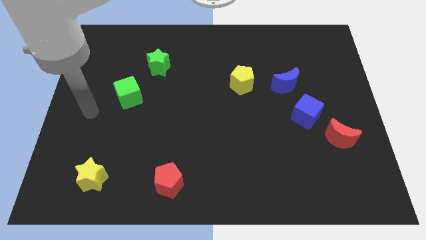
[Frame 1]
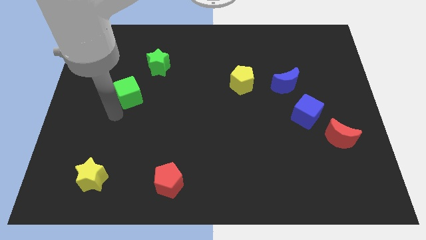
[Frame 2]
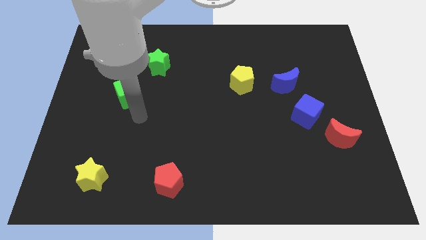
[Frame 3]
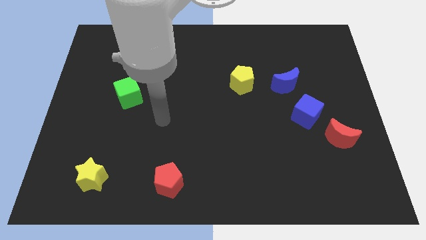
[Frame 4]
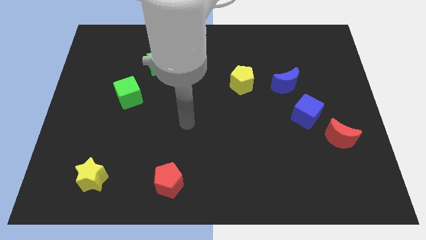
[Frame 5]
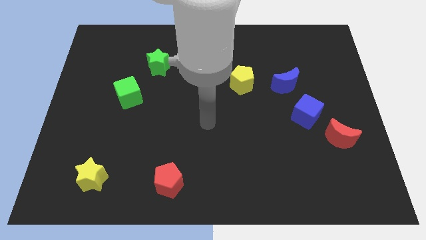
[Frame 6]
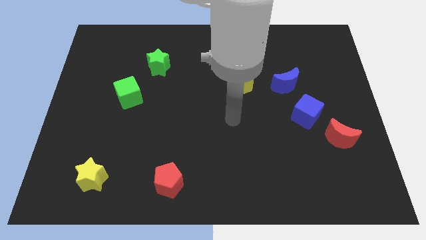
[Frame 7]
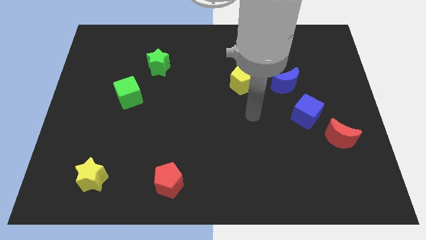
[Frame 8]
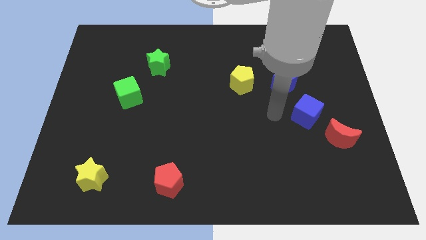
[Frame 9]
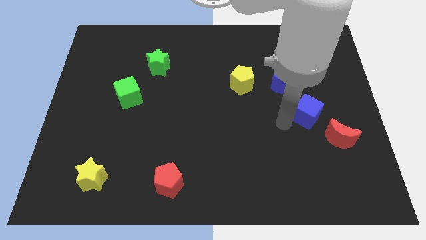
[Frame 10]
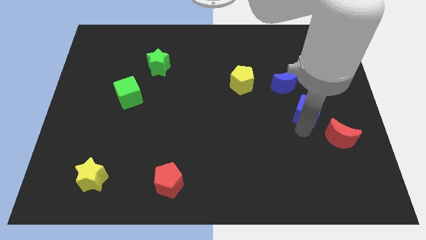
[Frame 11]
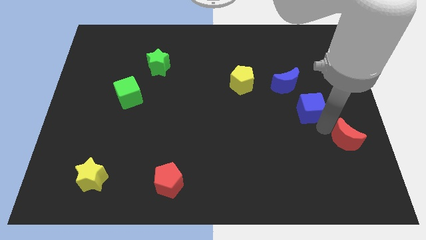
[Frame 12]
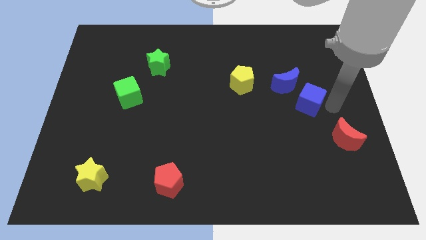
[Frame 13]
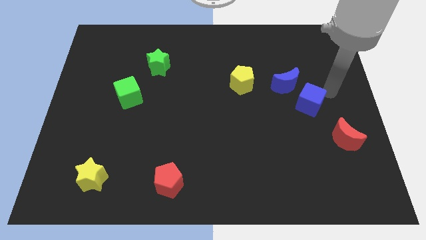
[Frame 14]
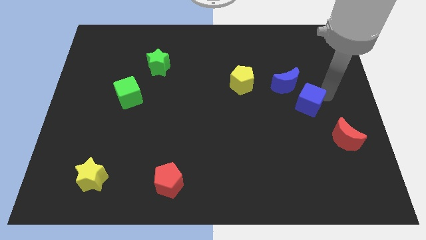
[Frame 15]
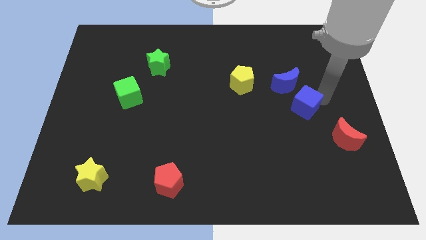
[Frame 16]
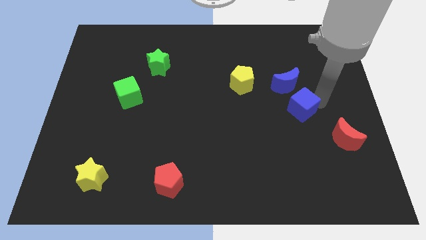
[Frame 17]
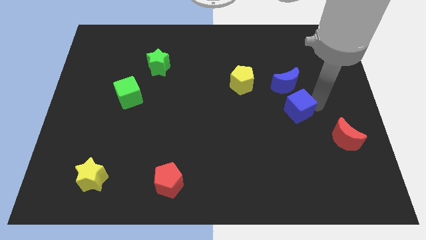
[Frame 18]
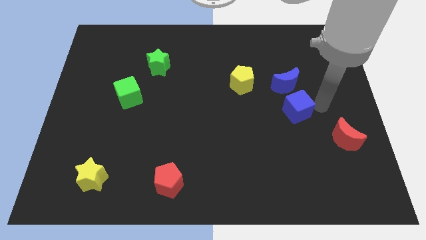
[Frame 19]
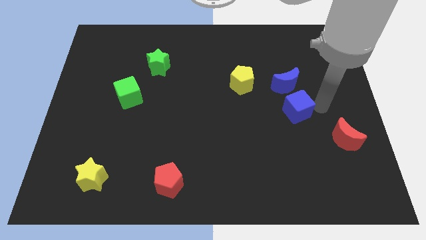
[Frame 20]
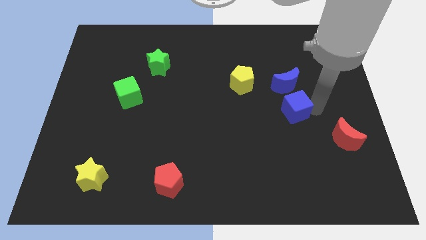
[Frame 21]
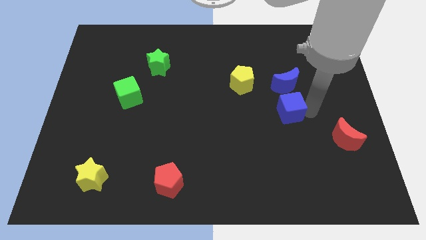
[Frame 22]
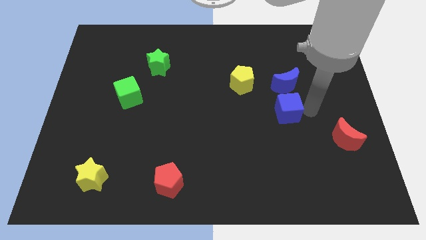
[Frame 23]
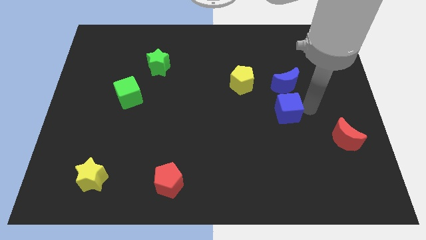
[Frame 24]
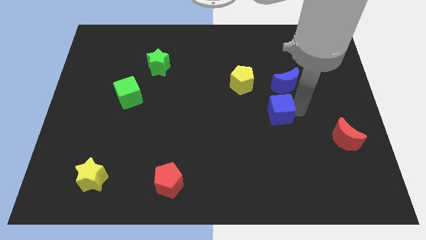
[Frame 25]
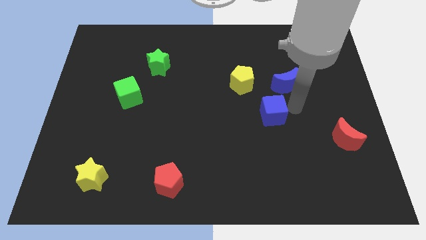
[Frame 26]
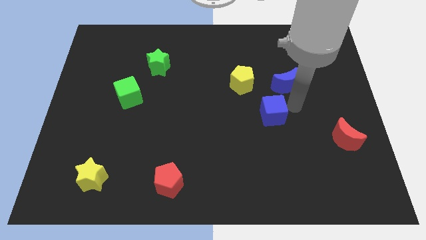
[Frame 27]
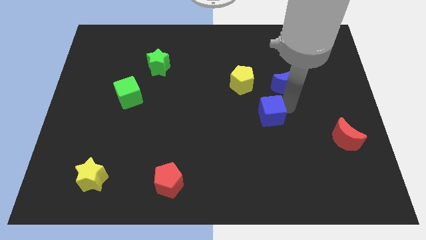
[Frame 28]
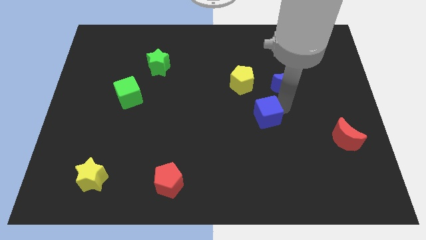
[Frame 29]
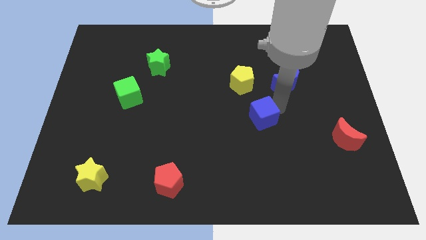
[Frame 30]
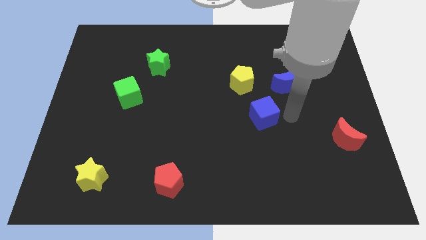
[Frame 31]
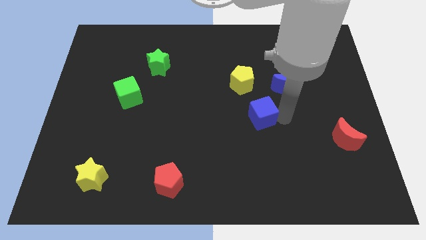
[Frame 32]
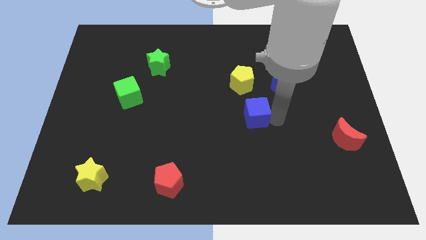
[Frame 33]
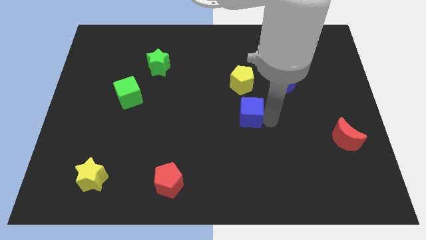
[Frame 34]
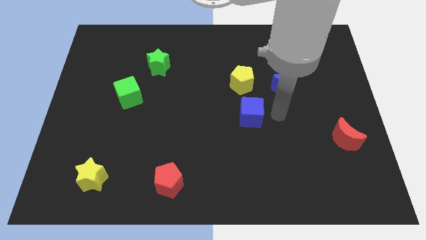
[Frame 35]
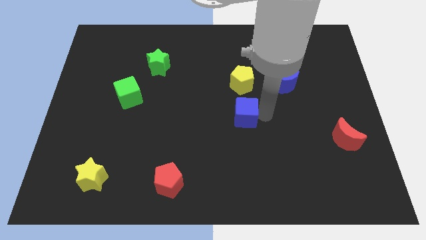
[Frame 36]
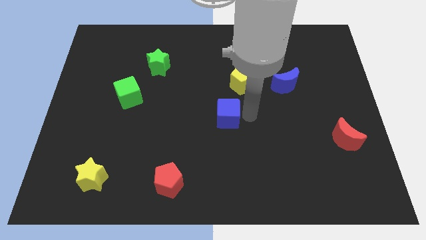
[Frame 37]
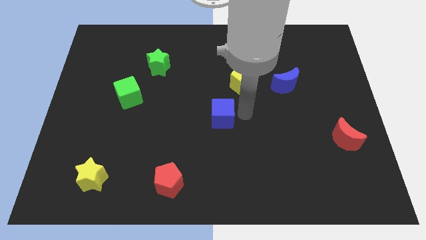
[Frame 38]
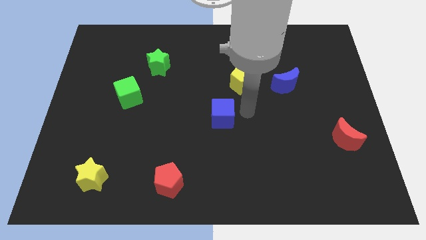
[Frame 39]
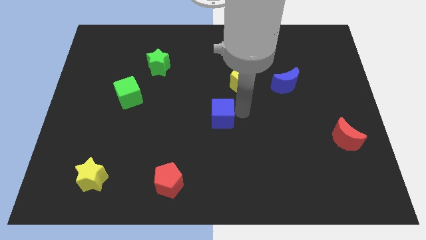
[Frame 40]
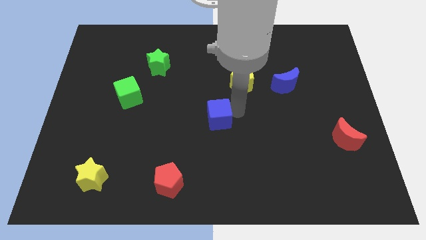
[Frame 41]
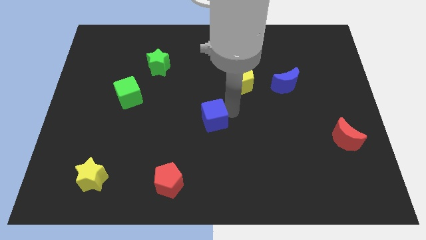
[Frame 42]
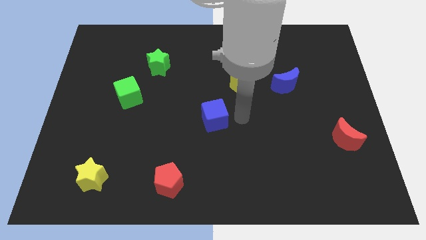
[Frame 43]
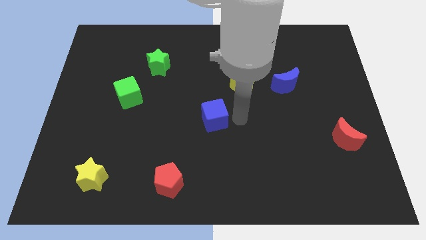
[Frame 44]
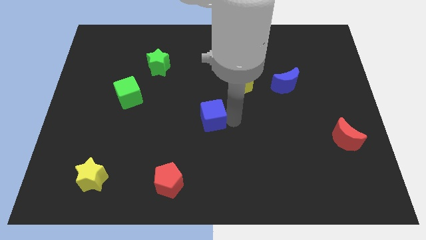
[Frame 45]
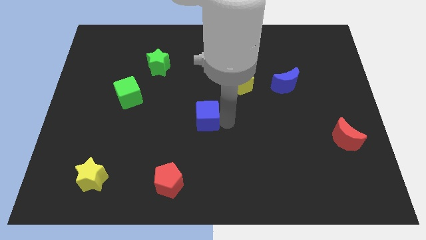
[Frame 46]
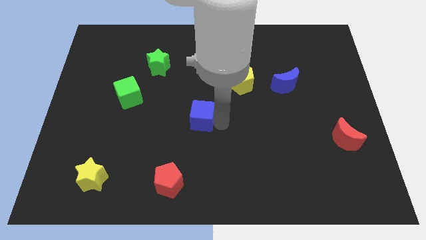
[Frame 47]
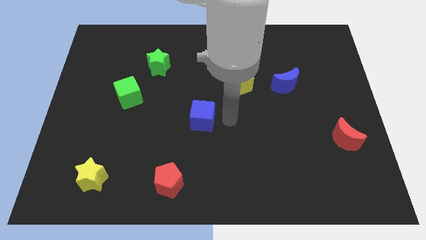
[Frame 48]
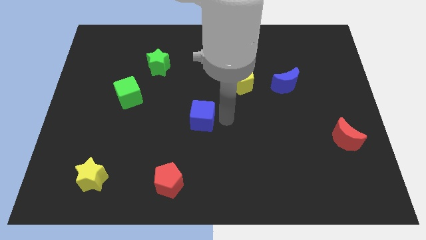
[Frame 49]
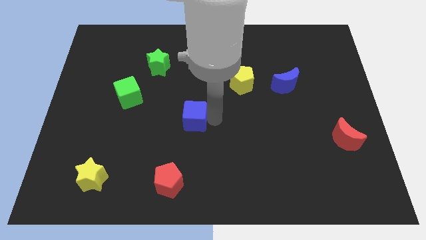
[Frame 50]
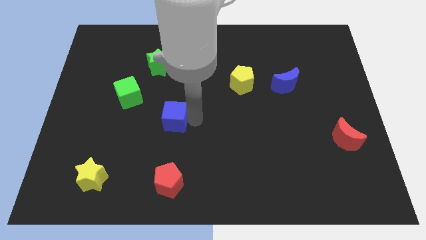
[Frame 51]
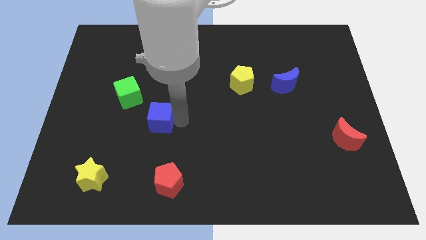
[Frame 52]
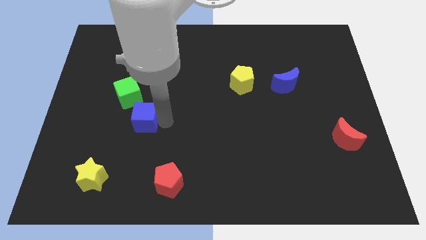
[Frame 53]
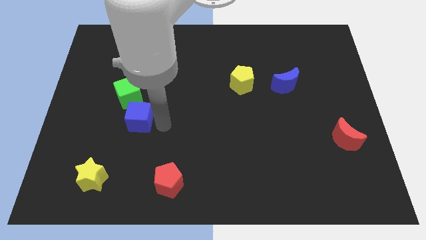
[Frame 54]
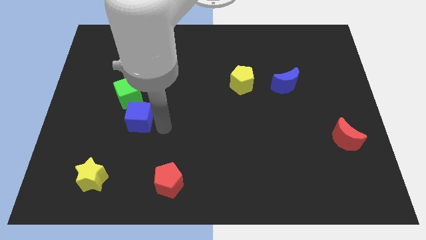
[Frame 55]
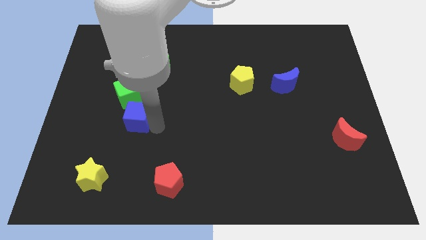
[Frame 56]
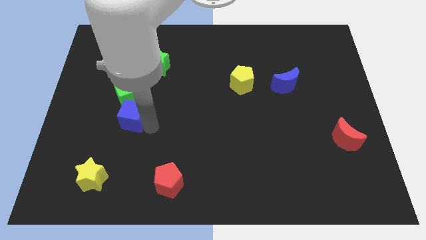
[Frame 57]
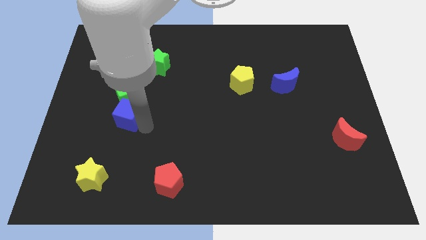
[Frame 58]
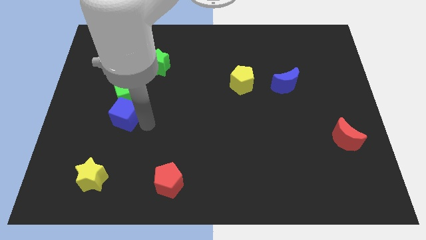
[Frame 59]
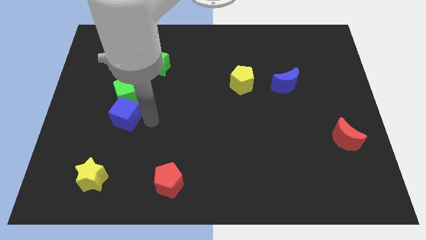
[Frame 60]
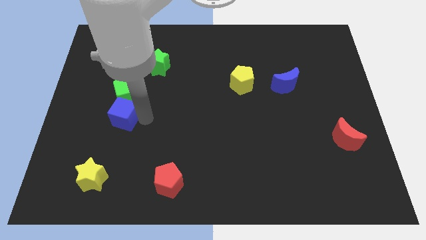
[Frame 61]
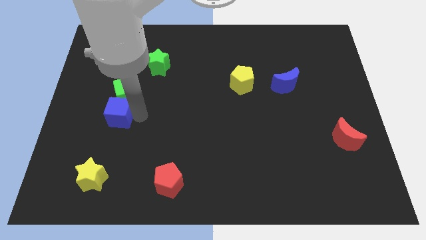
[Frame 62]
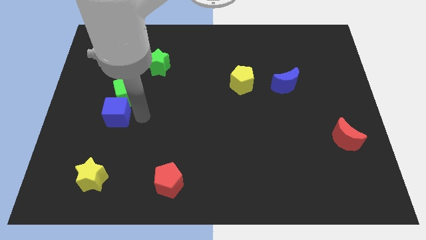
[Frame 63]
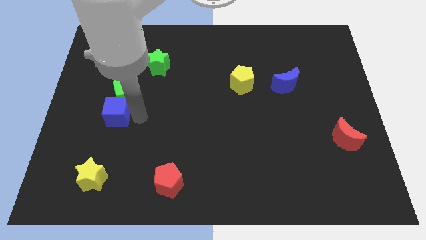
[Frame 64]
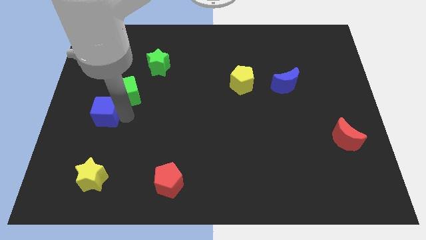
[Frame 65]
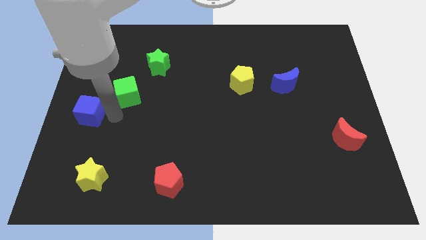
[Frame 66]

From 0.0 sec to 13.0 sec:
put the blue cube to the left side of the board
